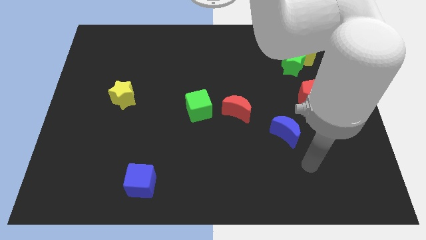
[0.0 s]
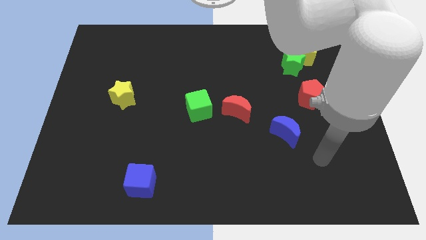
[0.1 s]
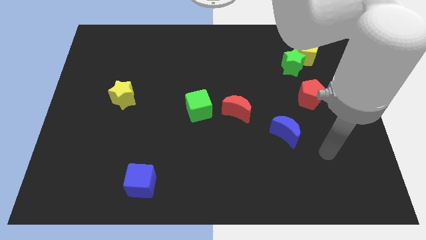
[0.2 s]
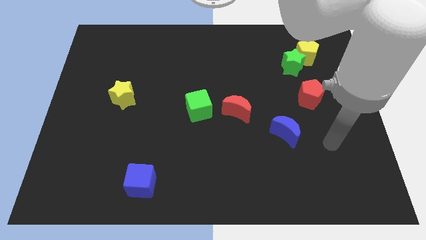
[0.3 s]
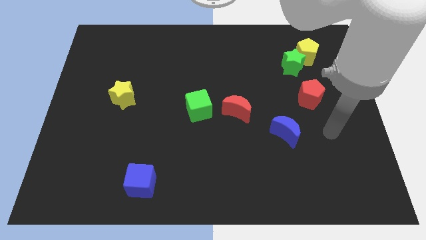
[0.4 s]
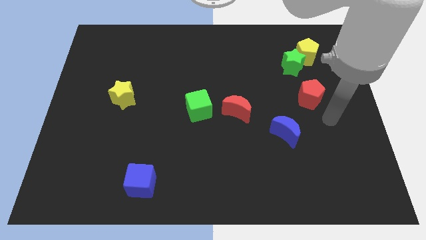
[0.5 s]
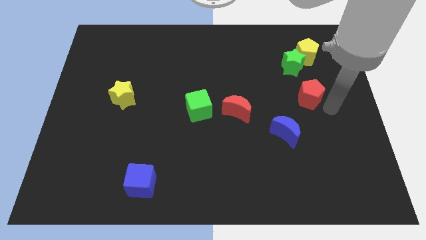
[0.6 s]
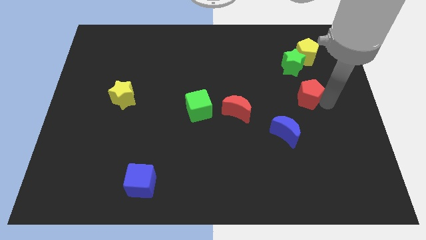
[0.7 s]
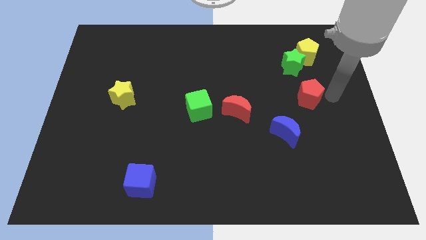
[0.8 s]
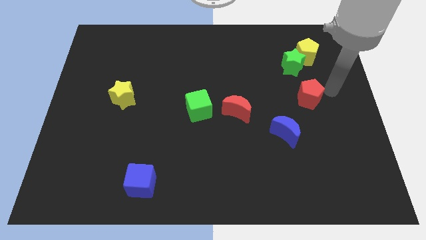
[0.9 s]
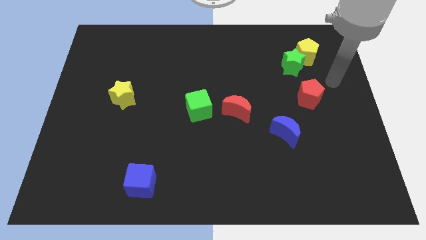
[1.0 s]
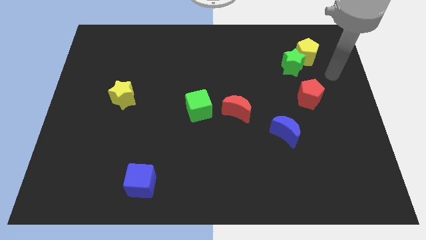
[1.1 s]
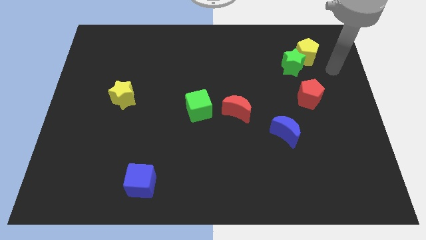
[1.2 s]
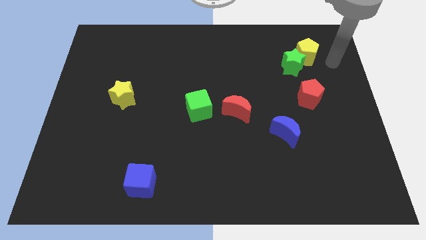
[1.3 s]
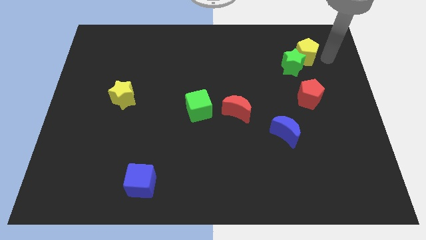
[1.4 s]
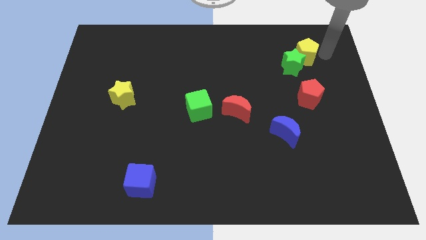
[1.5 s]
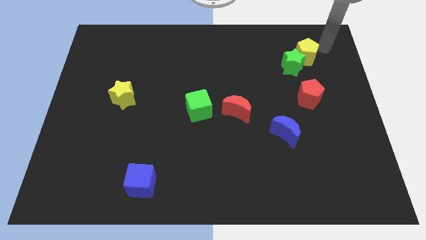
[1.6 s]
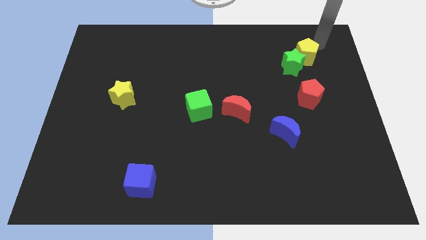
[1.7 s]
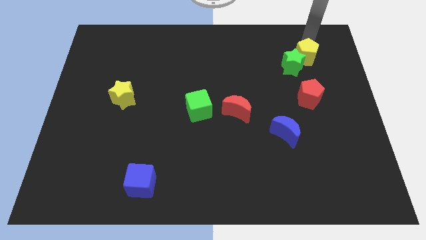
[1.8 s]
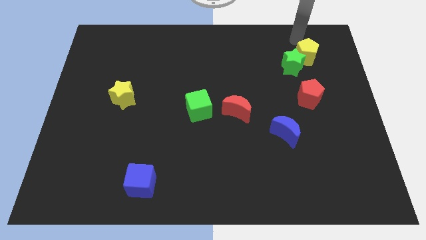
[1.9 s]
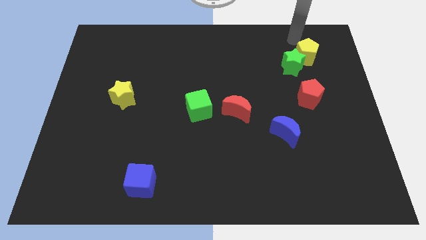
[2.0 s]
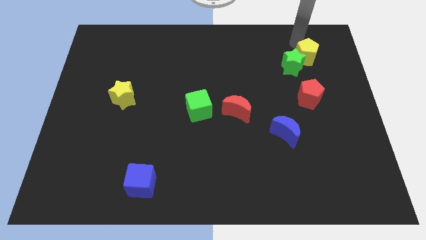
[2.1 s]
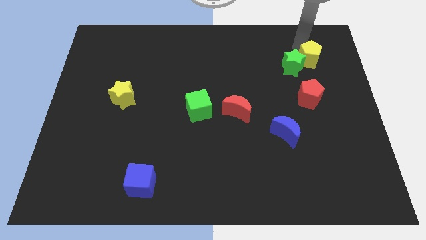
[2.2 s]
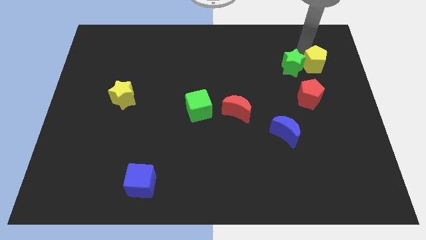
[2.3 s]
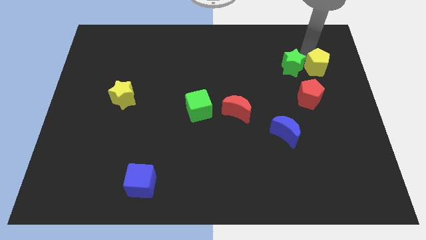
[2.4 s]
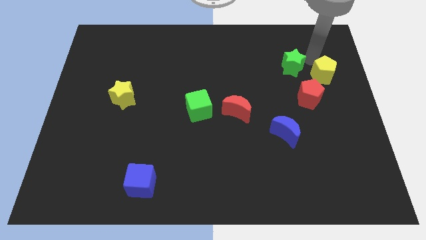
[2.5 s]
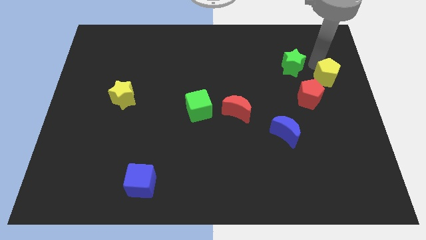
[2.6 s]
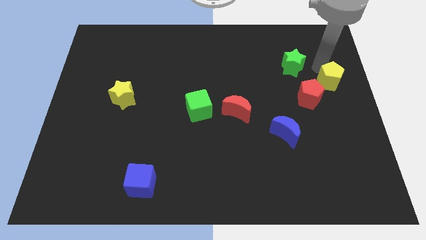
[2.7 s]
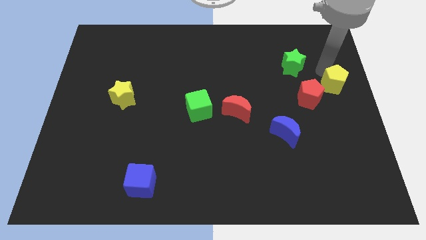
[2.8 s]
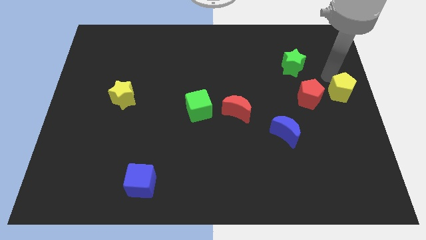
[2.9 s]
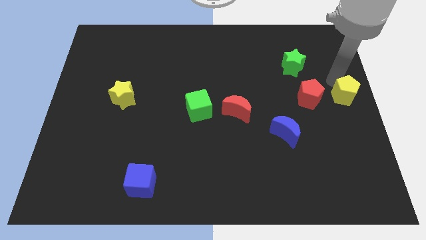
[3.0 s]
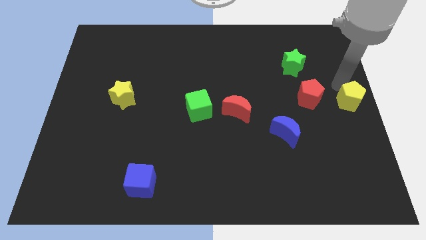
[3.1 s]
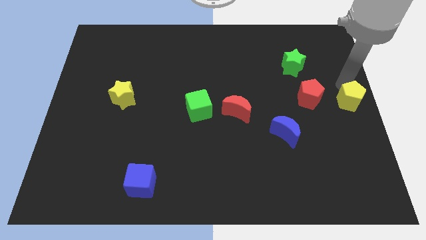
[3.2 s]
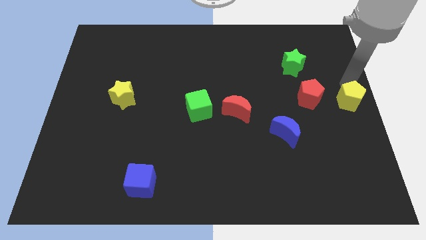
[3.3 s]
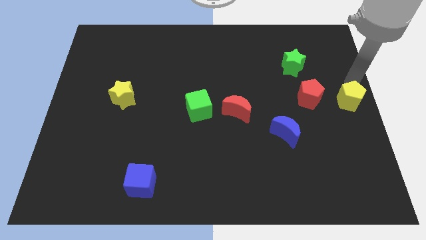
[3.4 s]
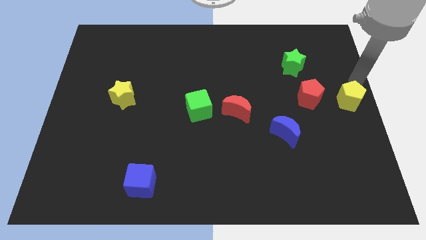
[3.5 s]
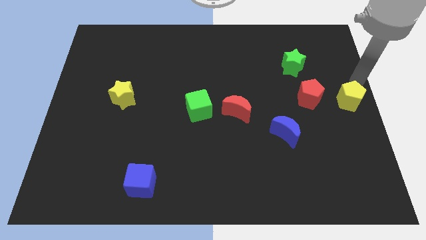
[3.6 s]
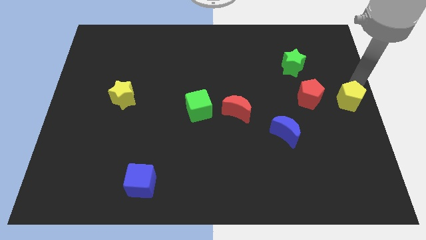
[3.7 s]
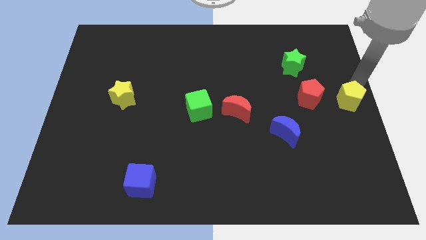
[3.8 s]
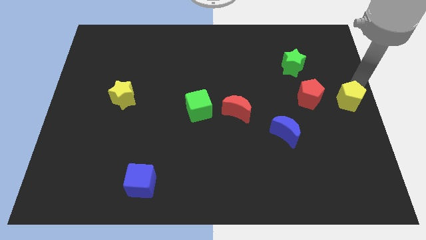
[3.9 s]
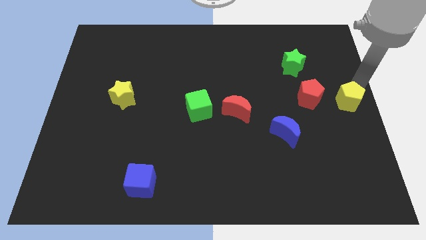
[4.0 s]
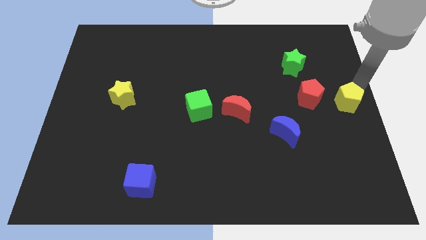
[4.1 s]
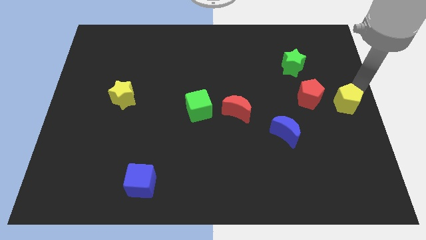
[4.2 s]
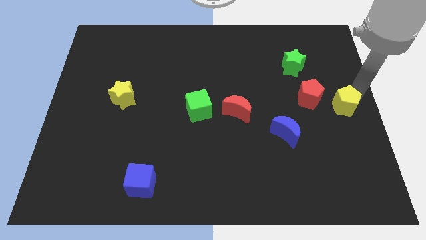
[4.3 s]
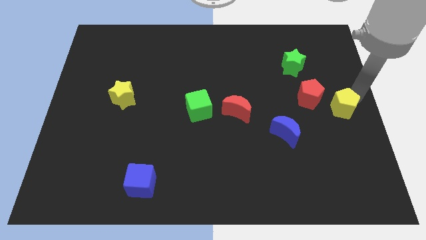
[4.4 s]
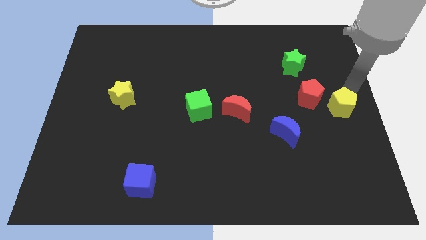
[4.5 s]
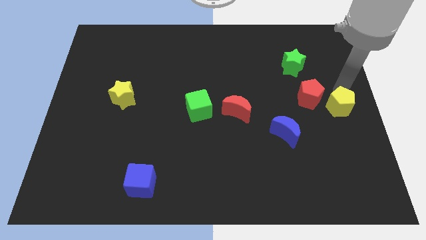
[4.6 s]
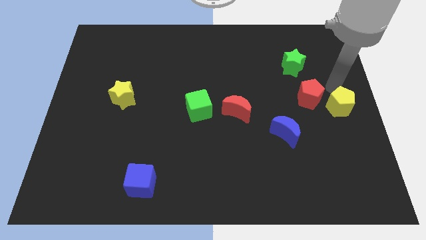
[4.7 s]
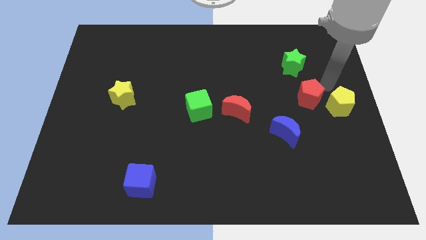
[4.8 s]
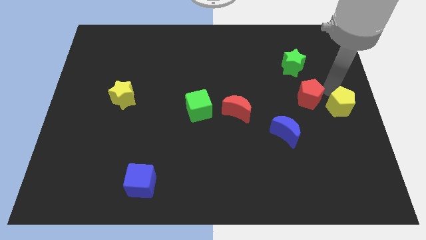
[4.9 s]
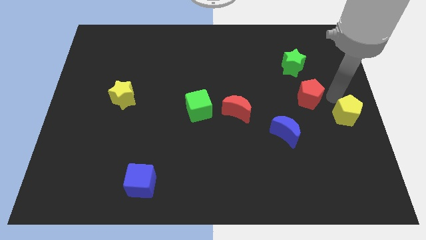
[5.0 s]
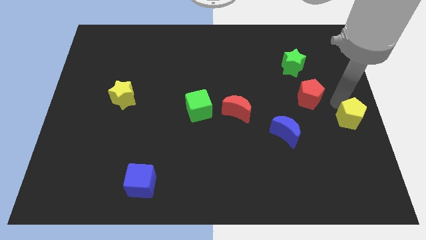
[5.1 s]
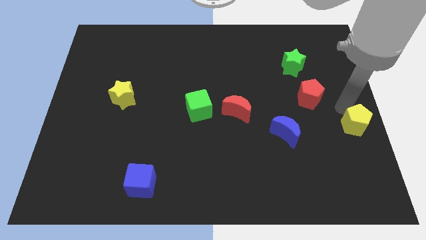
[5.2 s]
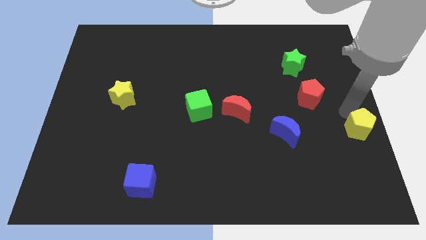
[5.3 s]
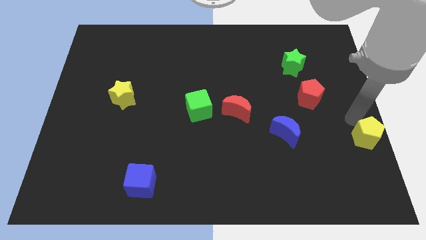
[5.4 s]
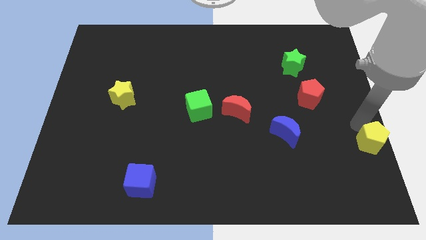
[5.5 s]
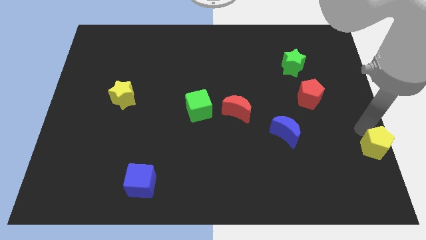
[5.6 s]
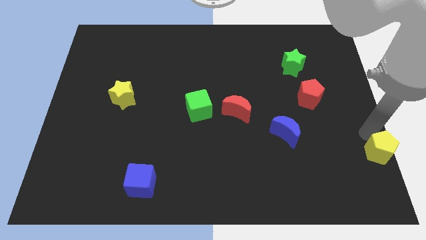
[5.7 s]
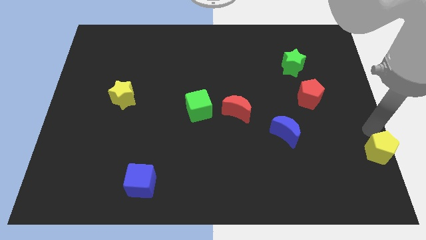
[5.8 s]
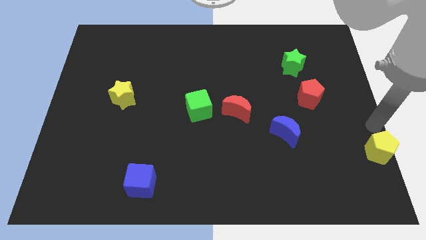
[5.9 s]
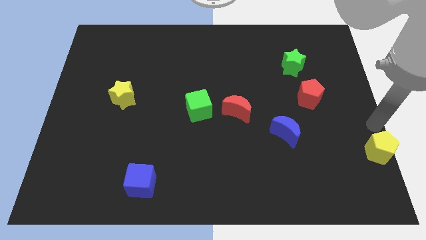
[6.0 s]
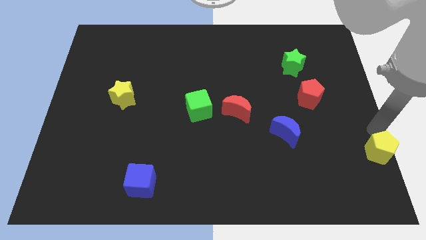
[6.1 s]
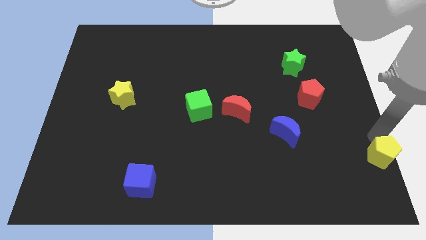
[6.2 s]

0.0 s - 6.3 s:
slide the yellow pentagon to the bottom right of the board
